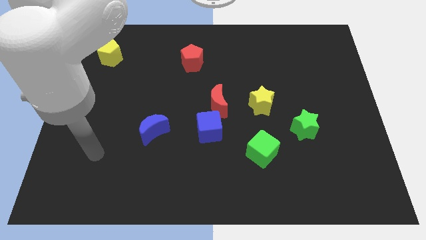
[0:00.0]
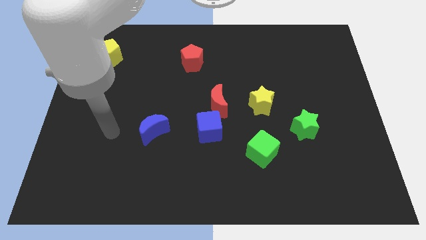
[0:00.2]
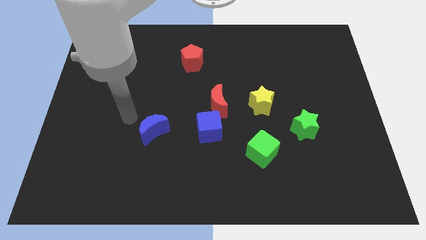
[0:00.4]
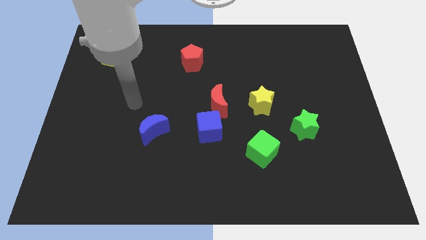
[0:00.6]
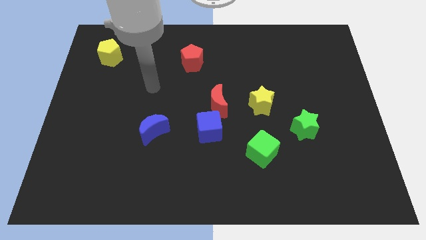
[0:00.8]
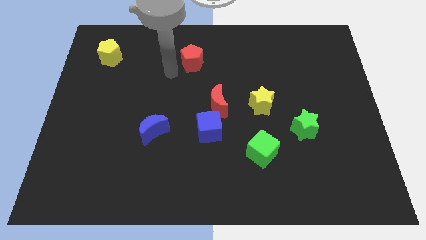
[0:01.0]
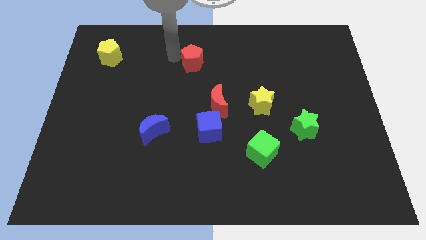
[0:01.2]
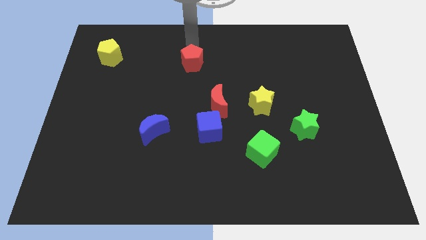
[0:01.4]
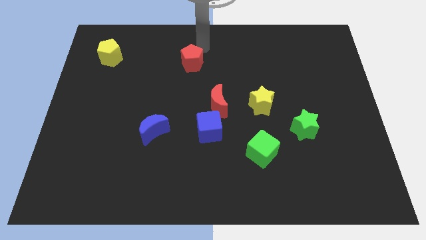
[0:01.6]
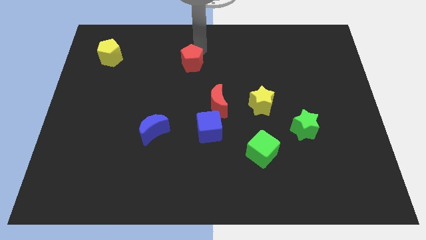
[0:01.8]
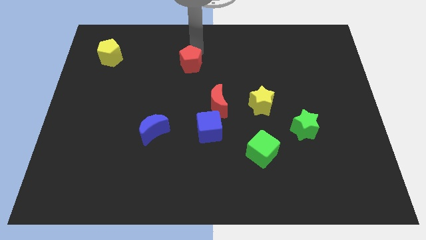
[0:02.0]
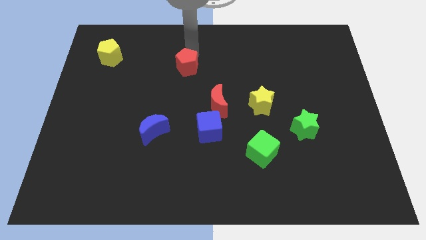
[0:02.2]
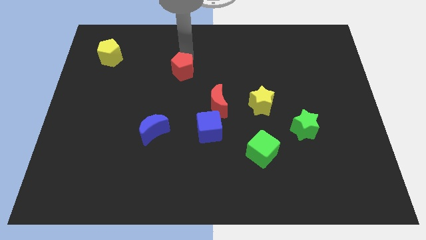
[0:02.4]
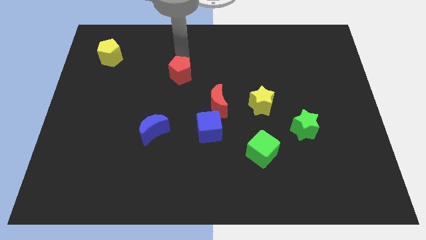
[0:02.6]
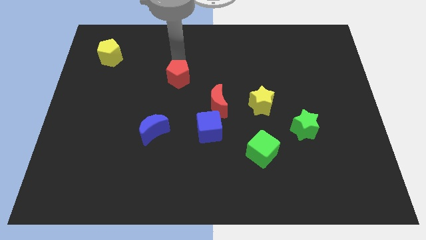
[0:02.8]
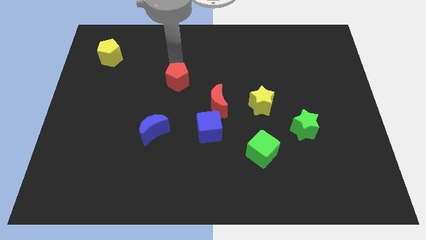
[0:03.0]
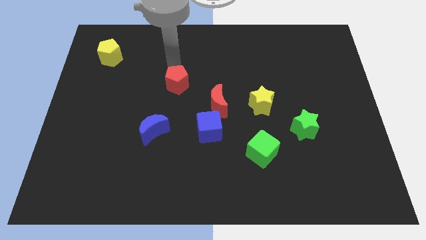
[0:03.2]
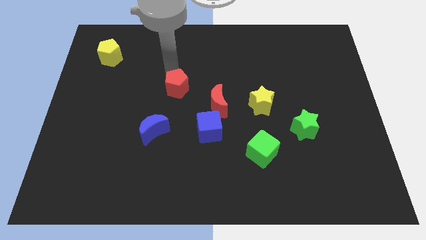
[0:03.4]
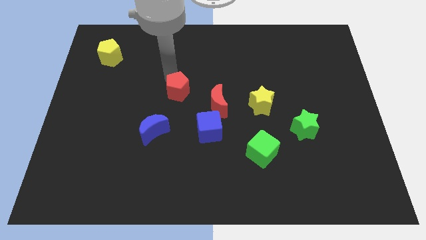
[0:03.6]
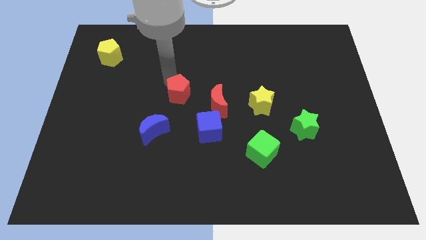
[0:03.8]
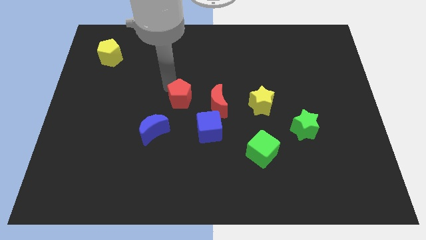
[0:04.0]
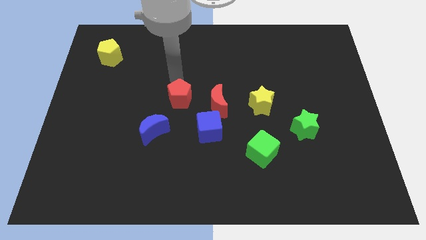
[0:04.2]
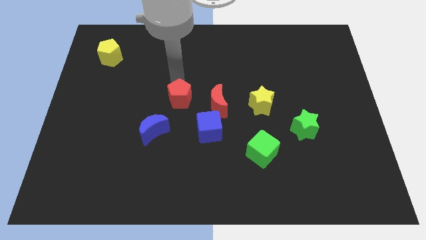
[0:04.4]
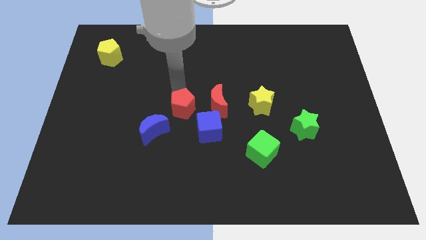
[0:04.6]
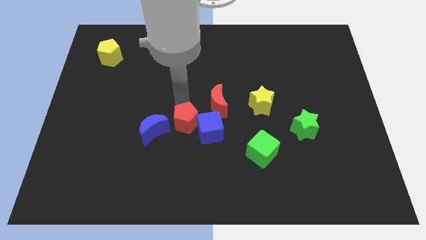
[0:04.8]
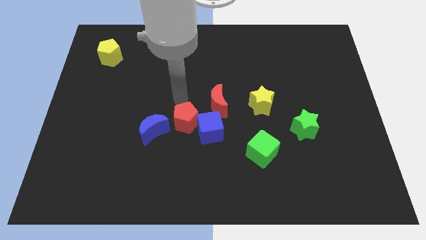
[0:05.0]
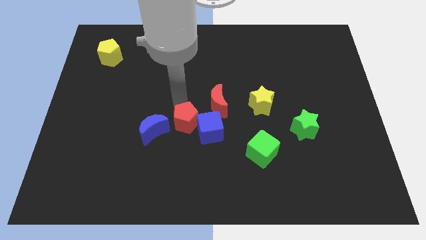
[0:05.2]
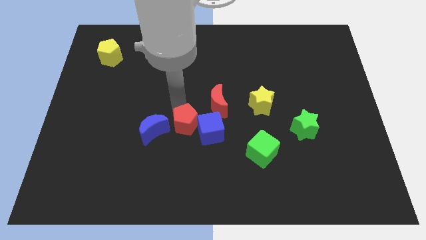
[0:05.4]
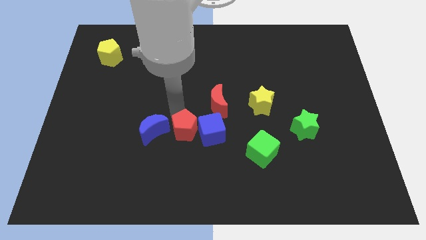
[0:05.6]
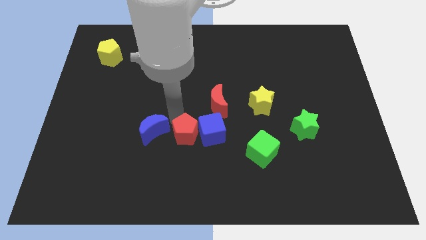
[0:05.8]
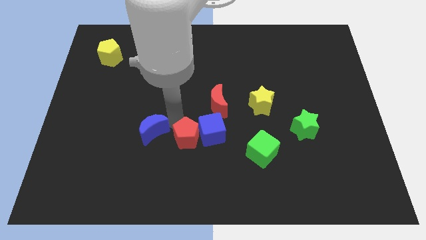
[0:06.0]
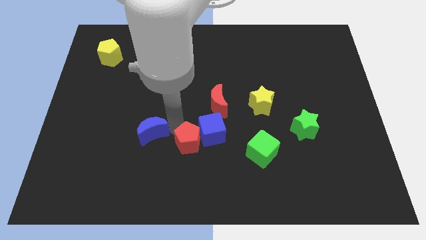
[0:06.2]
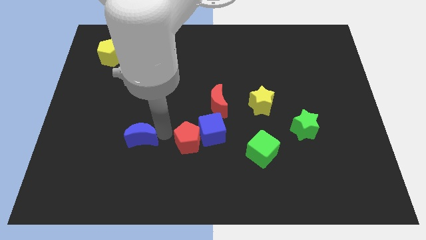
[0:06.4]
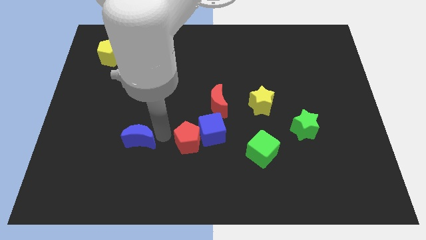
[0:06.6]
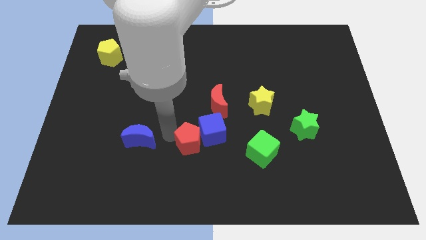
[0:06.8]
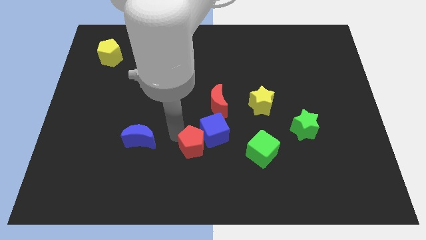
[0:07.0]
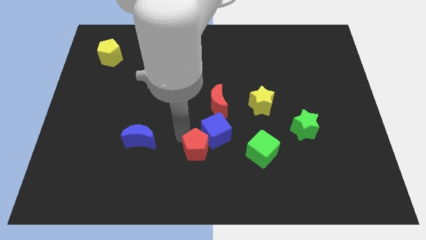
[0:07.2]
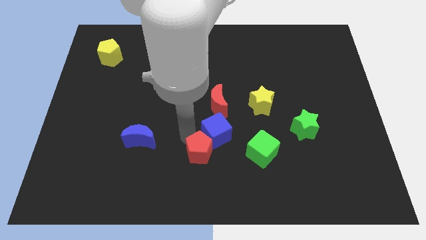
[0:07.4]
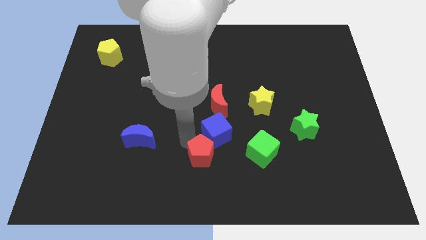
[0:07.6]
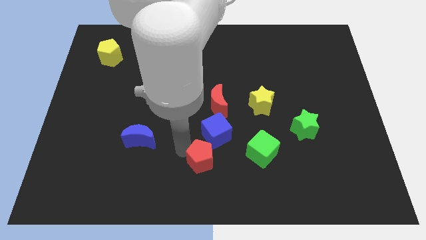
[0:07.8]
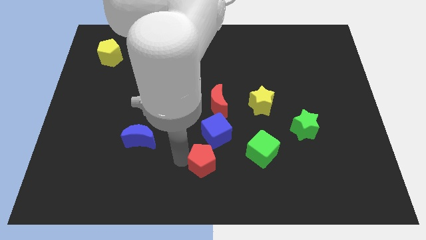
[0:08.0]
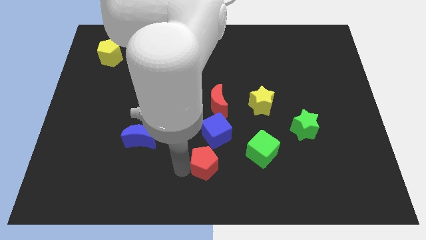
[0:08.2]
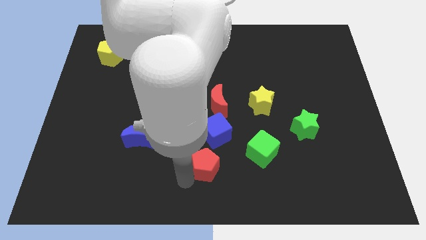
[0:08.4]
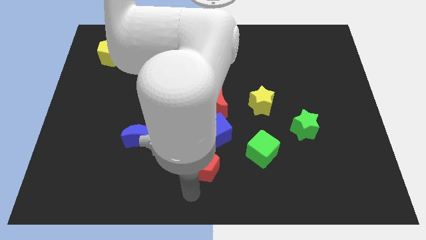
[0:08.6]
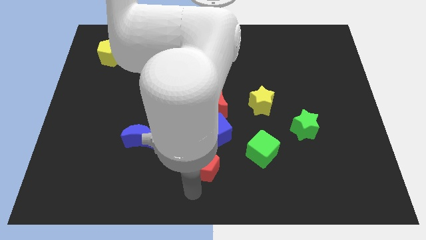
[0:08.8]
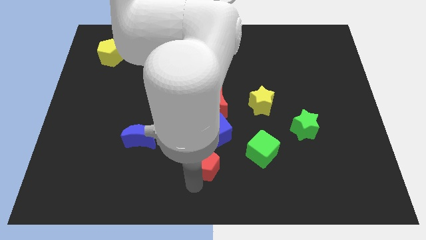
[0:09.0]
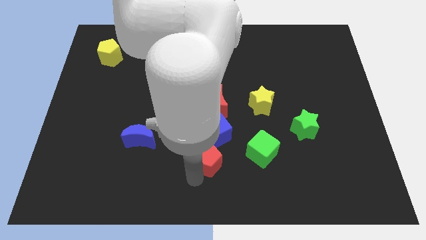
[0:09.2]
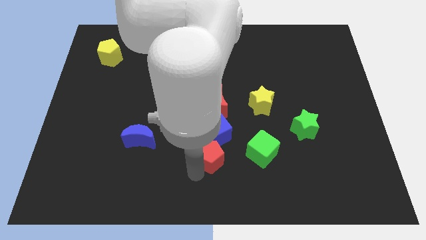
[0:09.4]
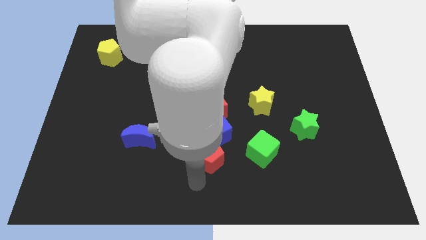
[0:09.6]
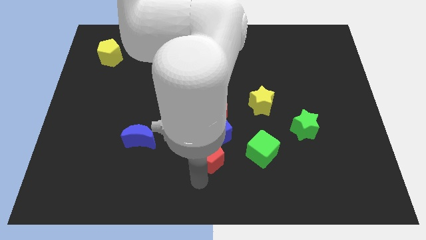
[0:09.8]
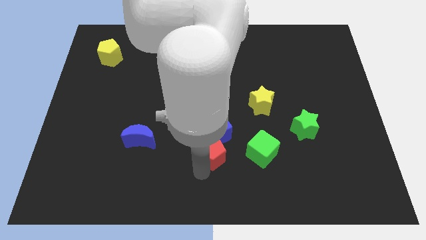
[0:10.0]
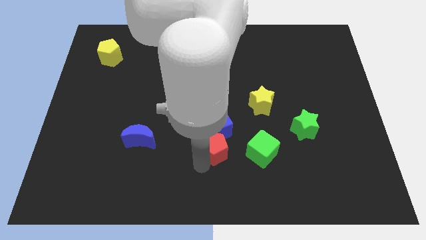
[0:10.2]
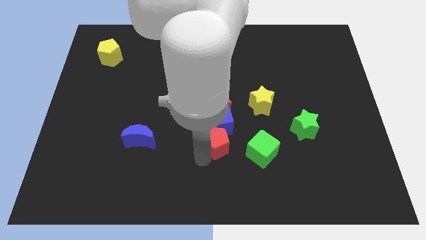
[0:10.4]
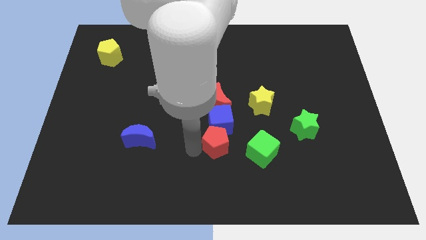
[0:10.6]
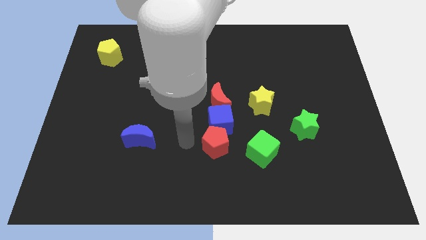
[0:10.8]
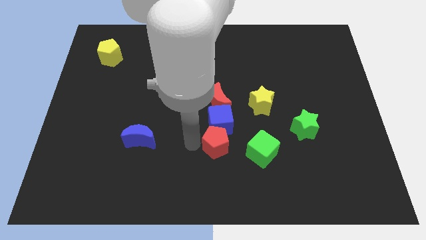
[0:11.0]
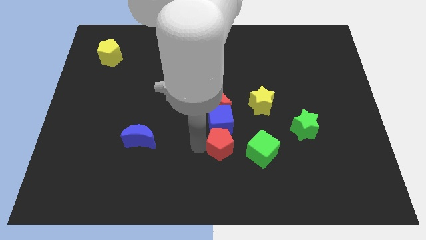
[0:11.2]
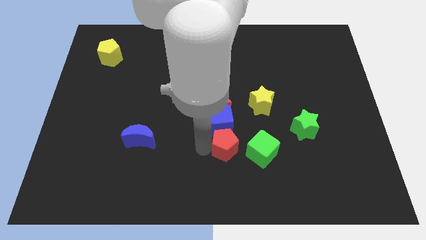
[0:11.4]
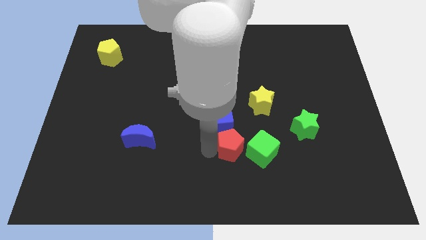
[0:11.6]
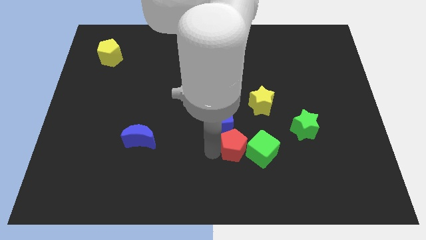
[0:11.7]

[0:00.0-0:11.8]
push the red pentagon close to the green cube
